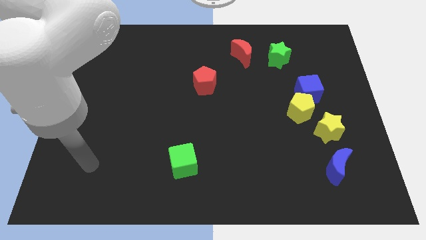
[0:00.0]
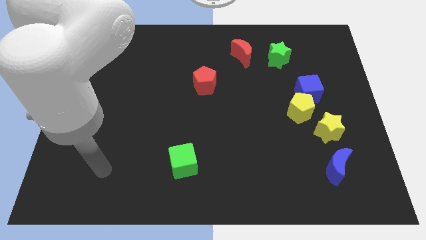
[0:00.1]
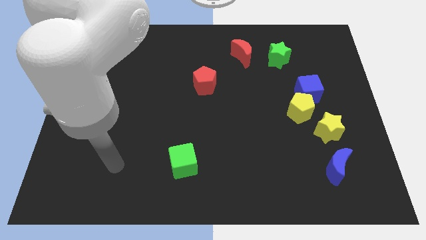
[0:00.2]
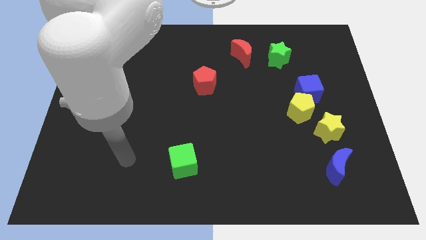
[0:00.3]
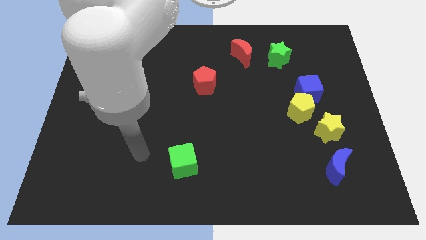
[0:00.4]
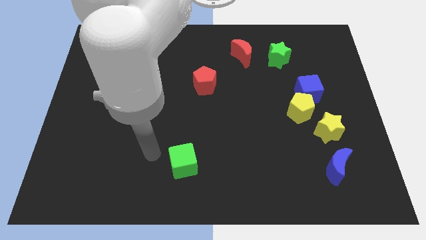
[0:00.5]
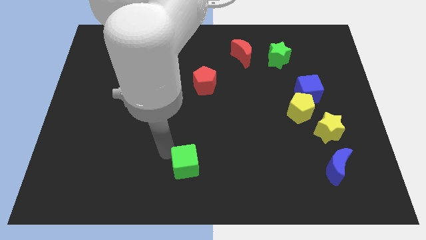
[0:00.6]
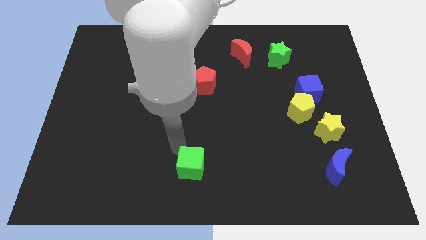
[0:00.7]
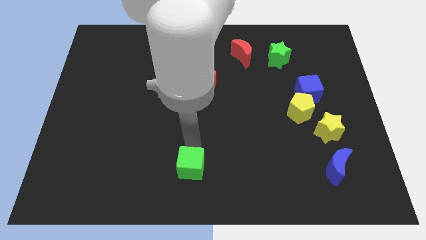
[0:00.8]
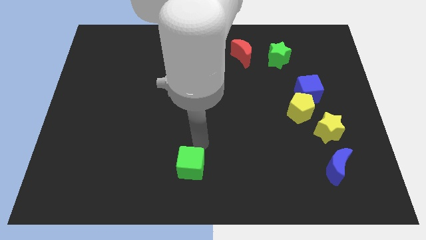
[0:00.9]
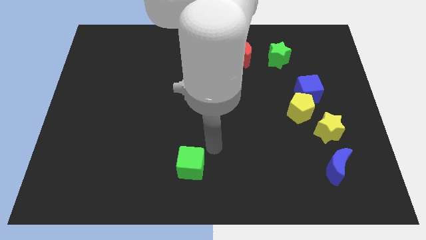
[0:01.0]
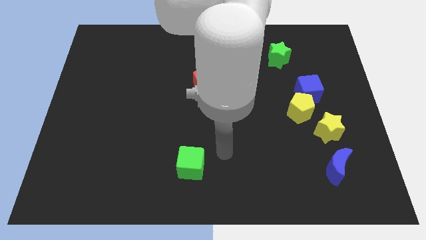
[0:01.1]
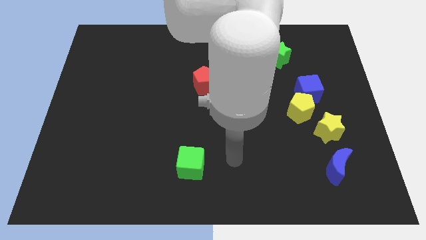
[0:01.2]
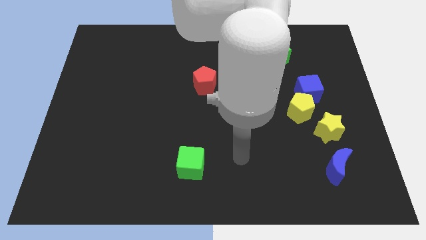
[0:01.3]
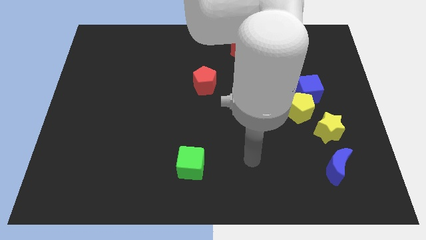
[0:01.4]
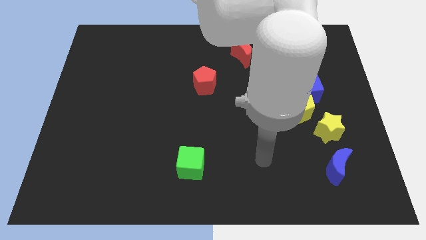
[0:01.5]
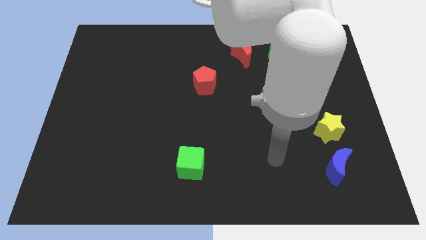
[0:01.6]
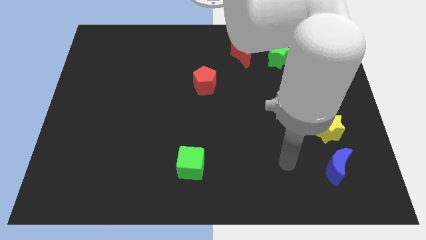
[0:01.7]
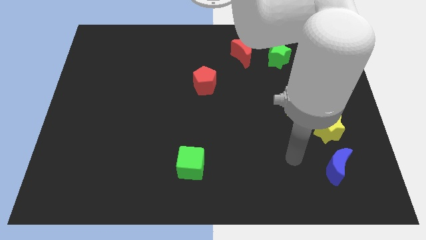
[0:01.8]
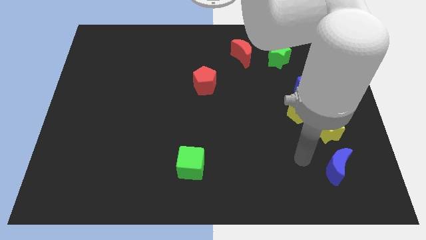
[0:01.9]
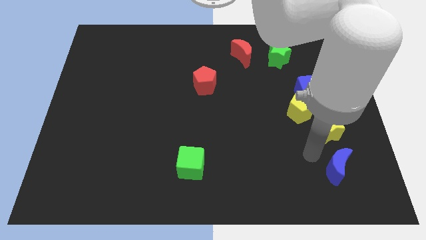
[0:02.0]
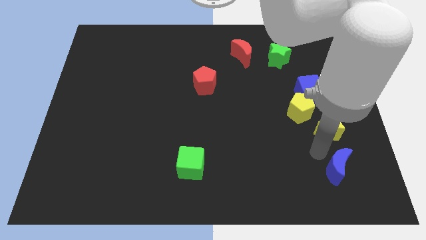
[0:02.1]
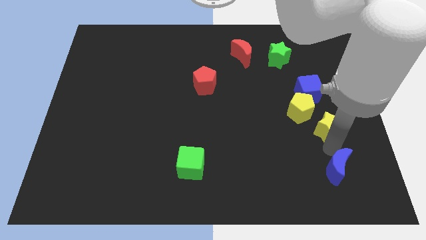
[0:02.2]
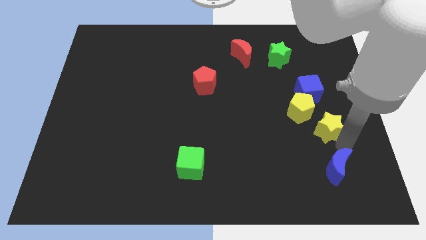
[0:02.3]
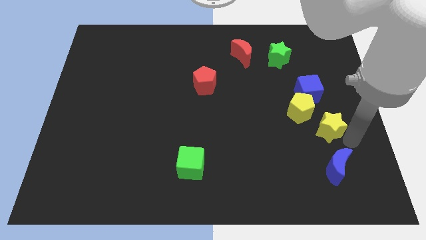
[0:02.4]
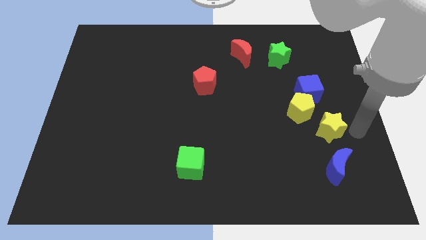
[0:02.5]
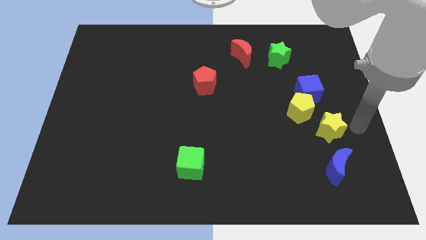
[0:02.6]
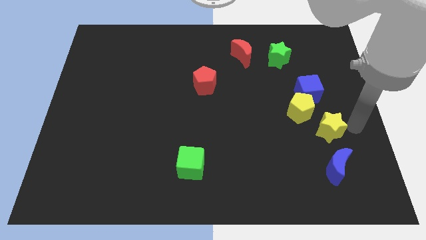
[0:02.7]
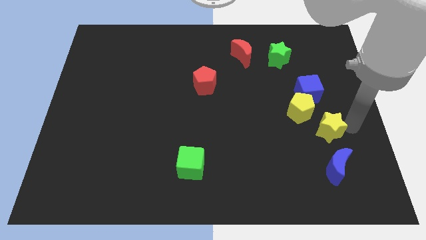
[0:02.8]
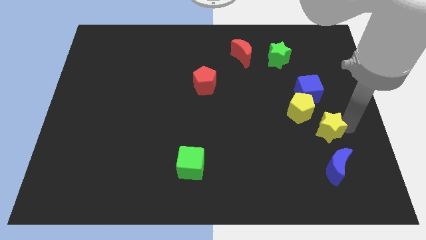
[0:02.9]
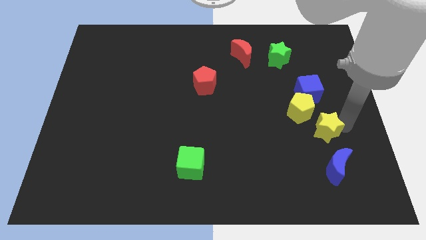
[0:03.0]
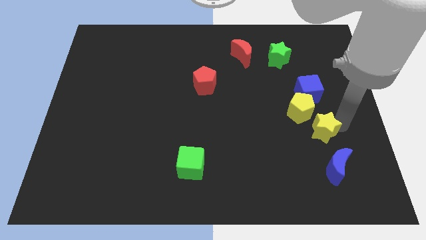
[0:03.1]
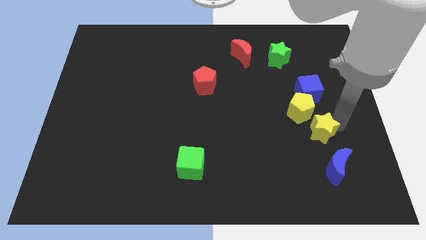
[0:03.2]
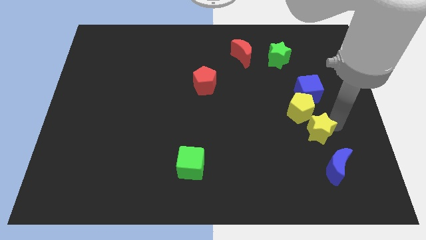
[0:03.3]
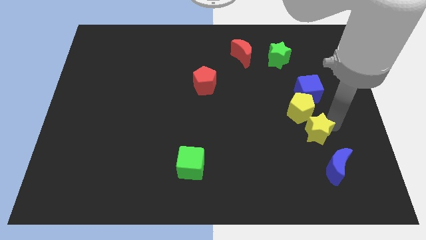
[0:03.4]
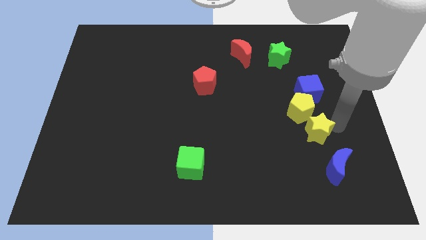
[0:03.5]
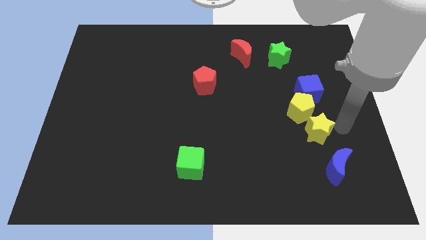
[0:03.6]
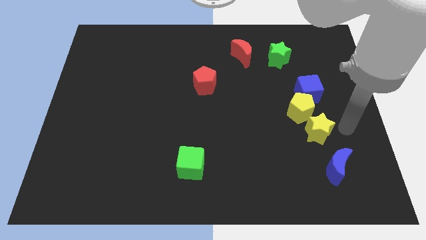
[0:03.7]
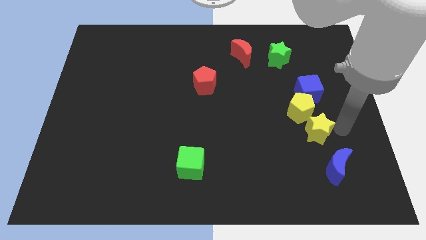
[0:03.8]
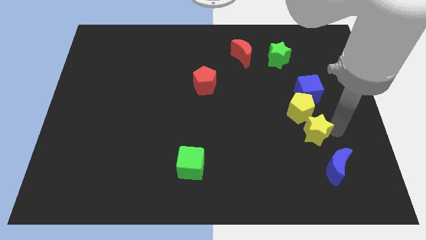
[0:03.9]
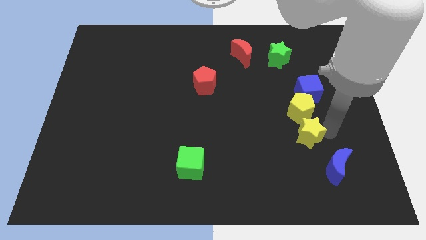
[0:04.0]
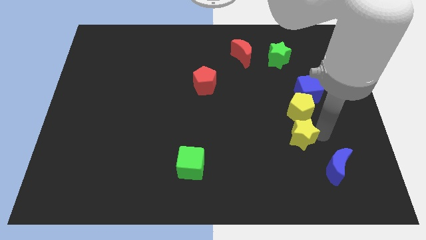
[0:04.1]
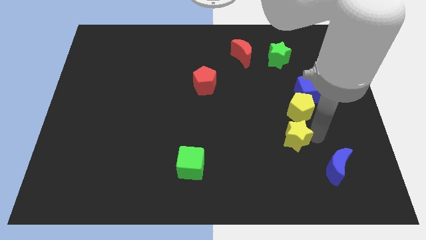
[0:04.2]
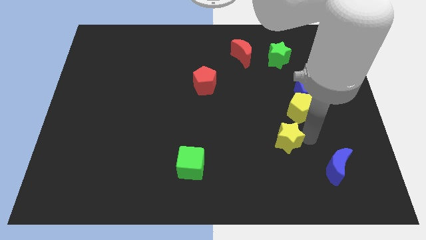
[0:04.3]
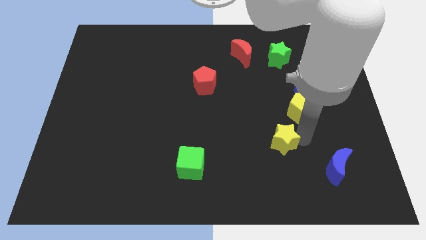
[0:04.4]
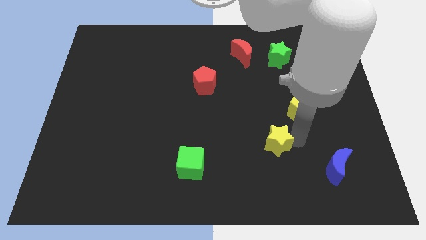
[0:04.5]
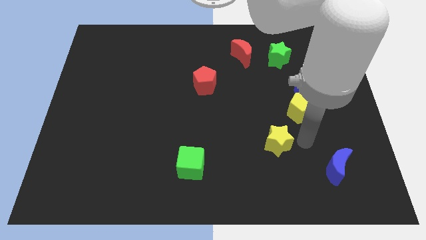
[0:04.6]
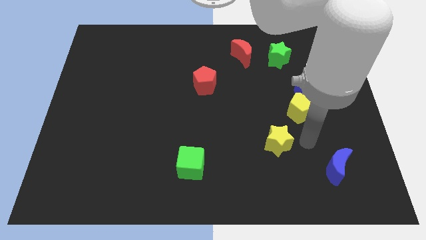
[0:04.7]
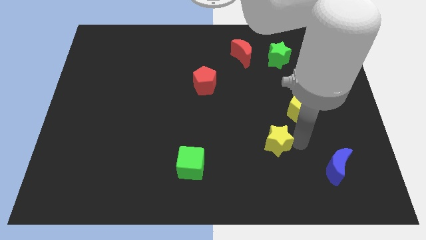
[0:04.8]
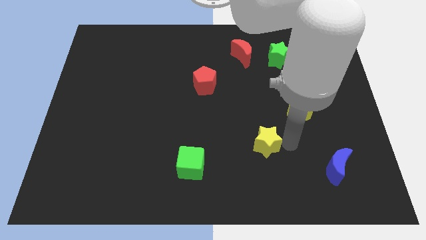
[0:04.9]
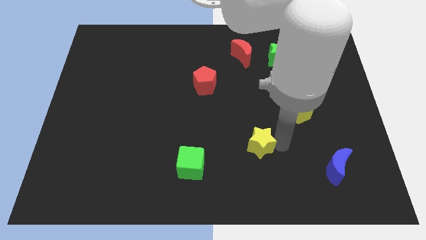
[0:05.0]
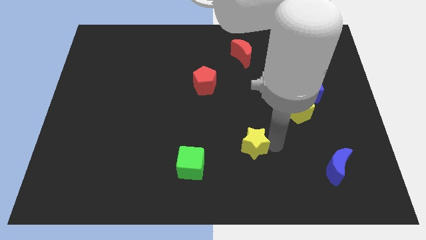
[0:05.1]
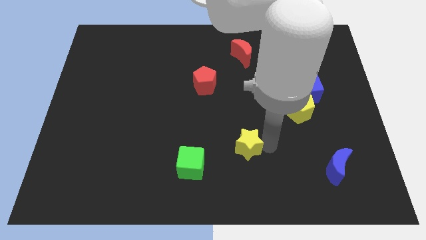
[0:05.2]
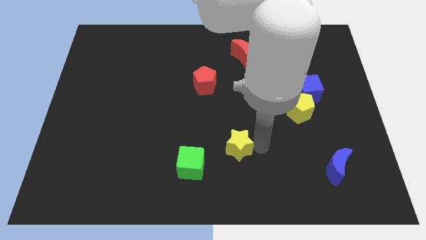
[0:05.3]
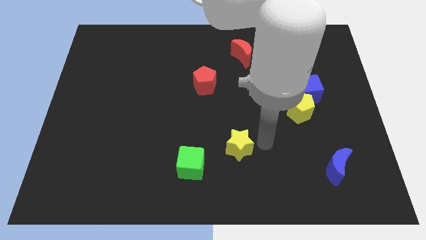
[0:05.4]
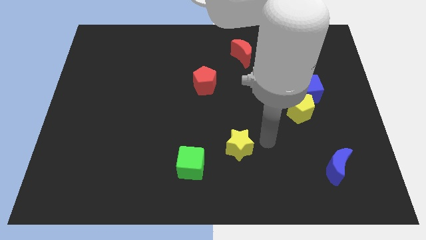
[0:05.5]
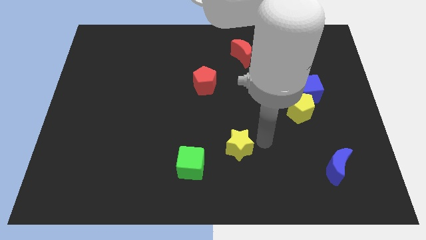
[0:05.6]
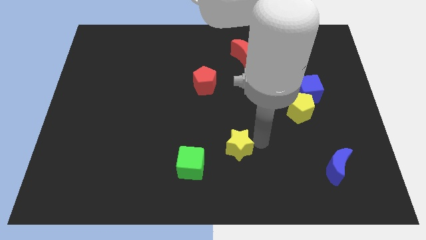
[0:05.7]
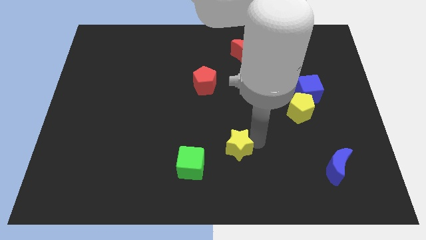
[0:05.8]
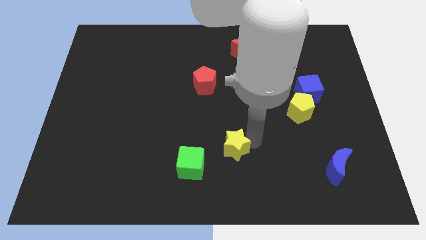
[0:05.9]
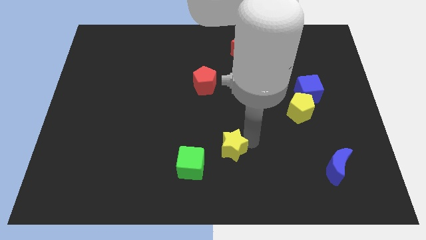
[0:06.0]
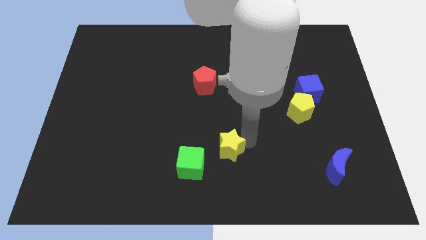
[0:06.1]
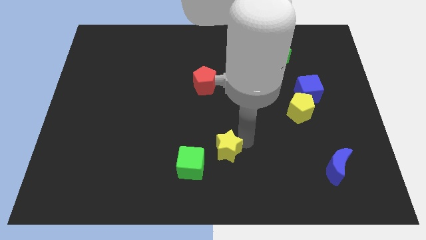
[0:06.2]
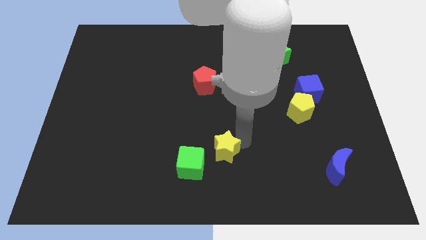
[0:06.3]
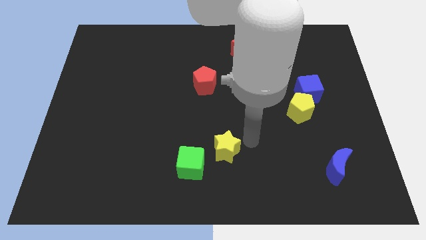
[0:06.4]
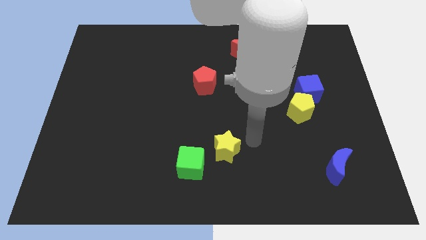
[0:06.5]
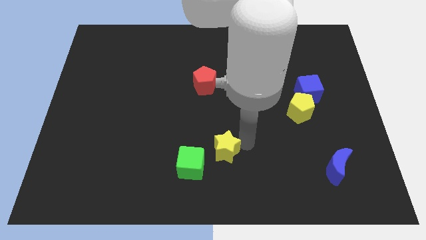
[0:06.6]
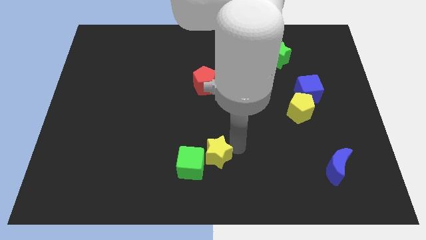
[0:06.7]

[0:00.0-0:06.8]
put the yellow star next to the green cube
